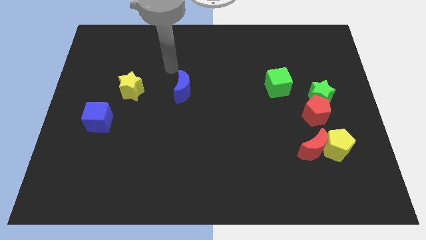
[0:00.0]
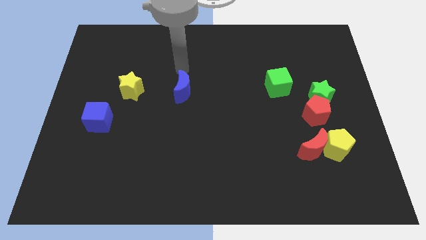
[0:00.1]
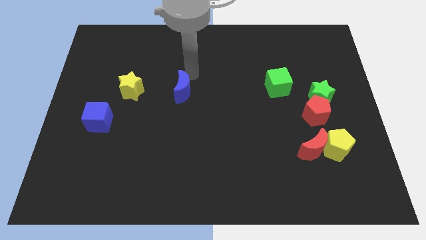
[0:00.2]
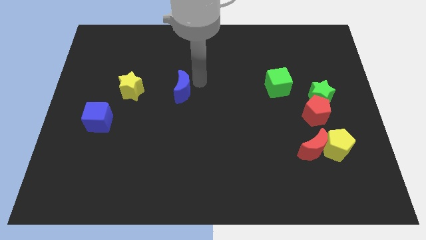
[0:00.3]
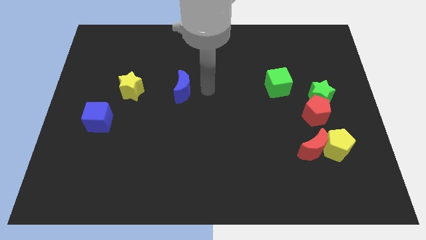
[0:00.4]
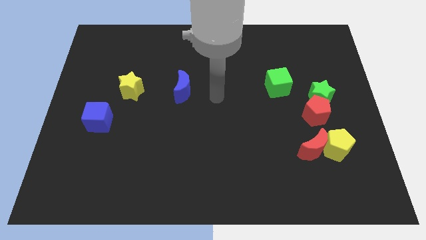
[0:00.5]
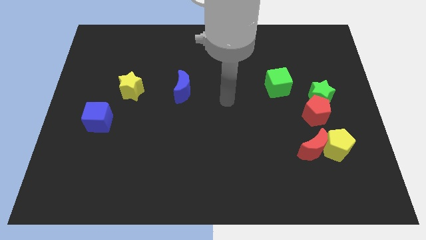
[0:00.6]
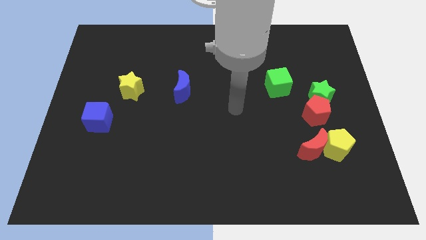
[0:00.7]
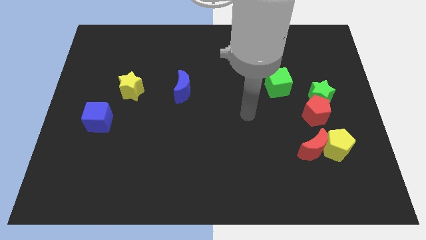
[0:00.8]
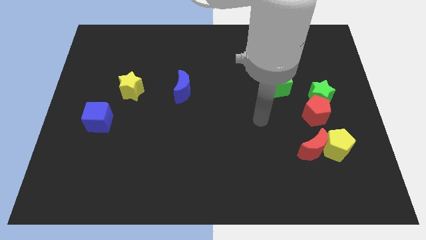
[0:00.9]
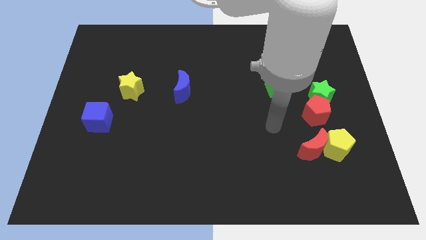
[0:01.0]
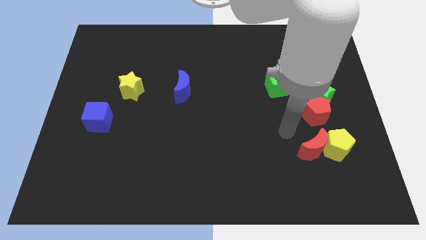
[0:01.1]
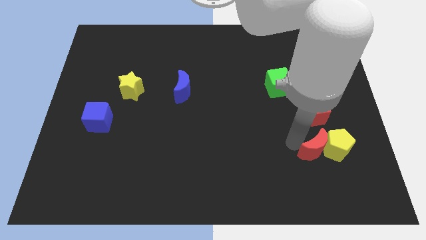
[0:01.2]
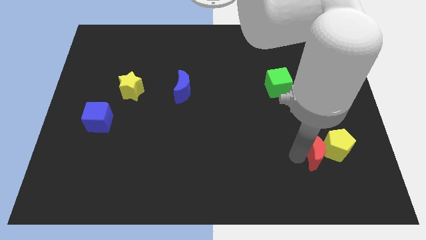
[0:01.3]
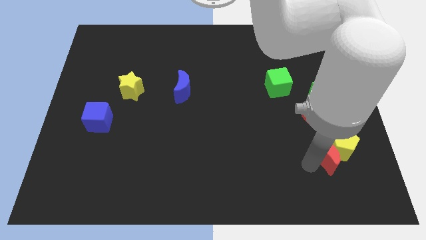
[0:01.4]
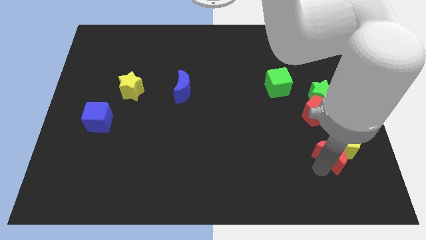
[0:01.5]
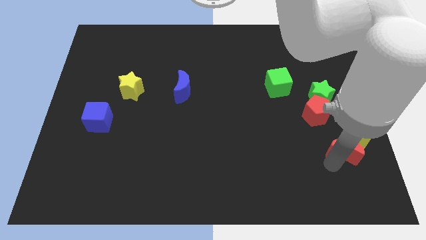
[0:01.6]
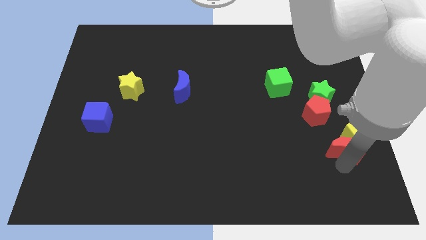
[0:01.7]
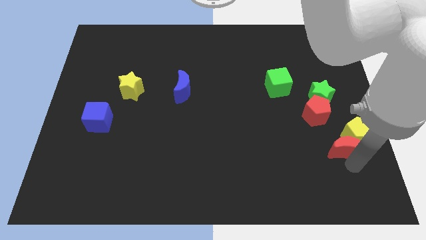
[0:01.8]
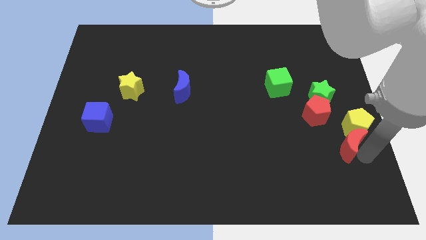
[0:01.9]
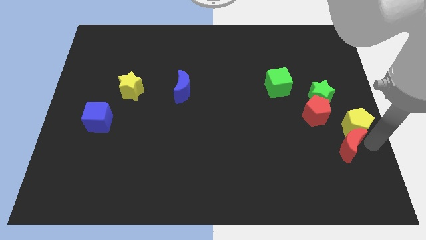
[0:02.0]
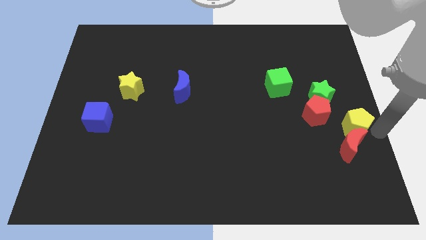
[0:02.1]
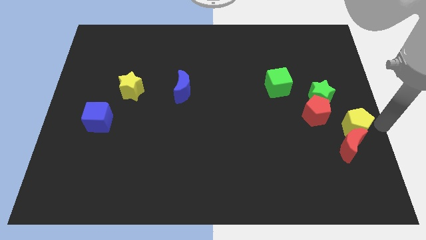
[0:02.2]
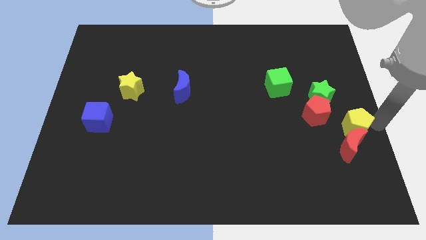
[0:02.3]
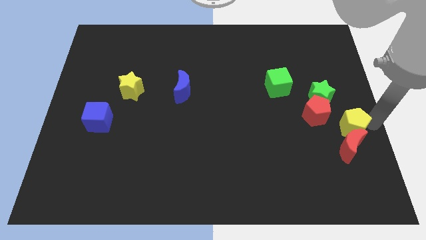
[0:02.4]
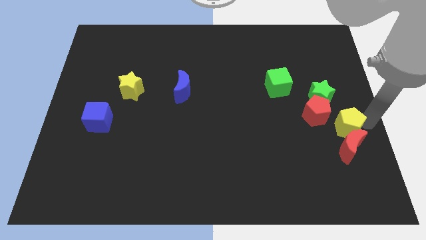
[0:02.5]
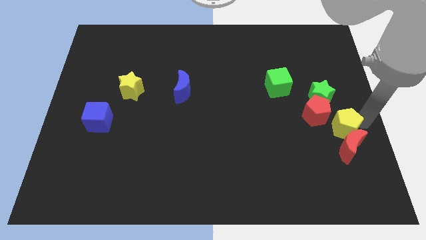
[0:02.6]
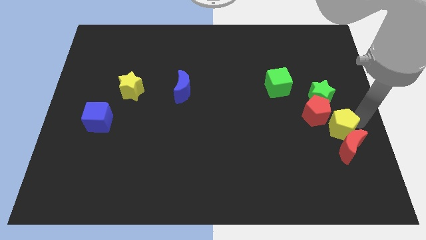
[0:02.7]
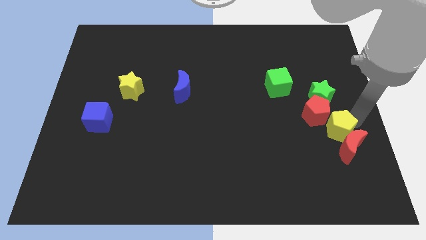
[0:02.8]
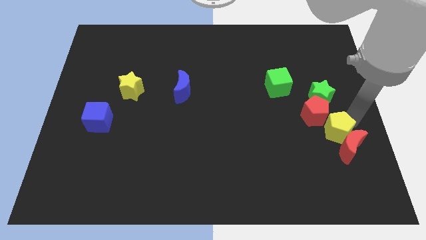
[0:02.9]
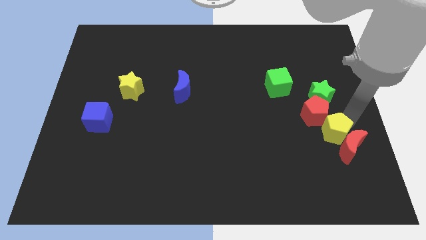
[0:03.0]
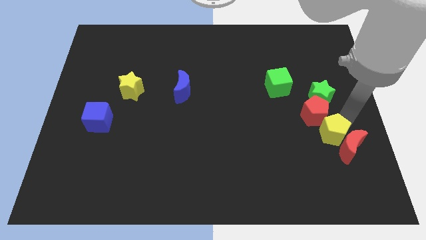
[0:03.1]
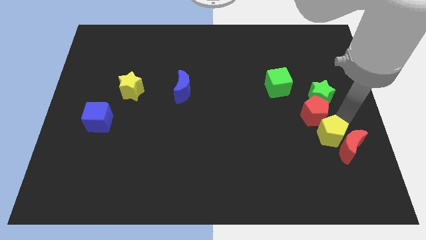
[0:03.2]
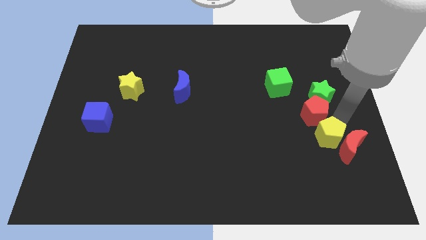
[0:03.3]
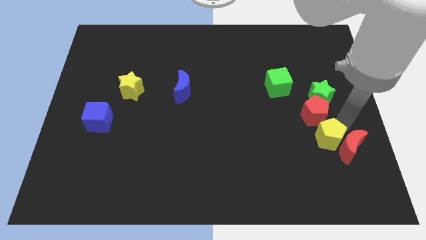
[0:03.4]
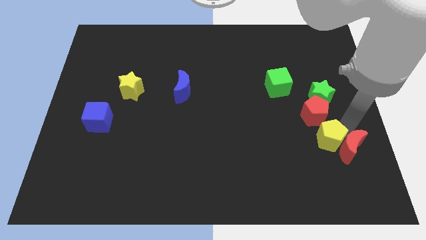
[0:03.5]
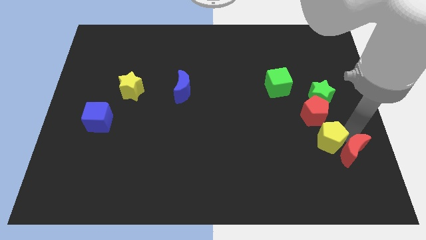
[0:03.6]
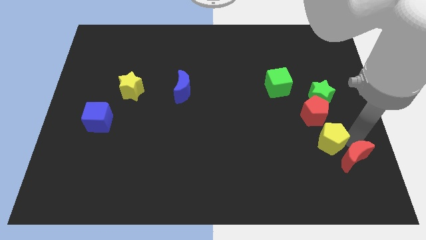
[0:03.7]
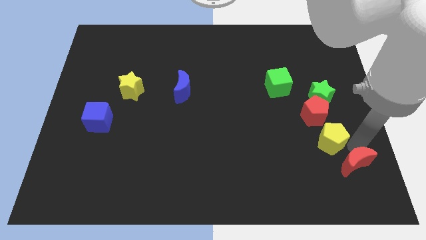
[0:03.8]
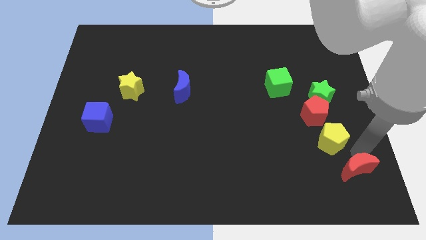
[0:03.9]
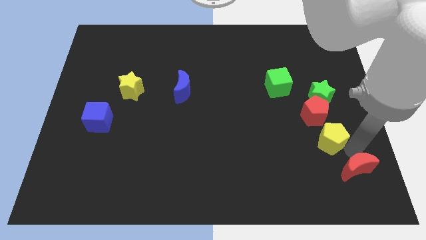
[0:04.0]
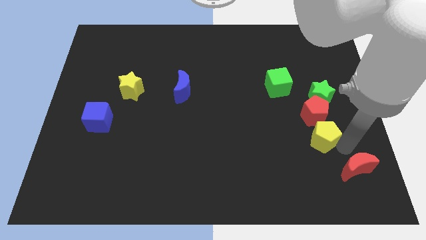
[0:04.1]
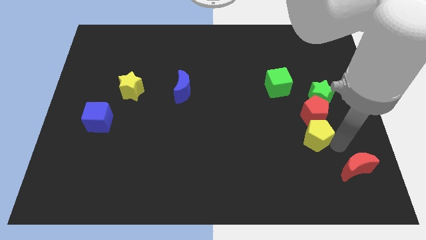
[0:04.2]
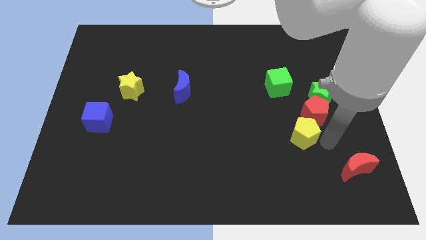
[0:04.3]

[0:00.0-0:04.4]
push the yellow pentagon somewhat upwards and then to the left

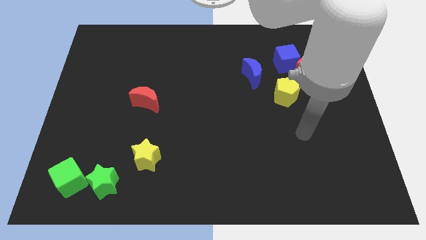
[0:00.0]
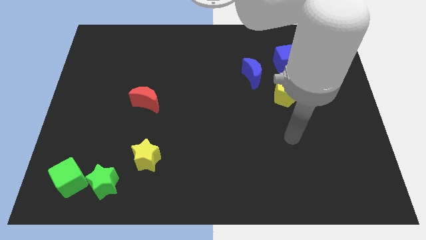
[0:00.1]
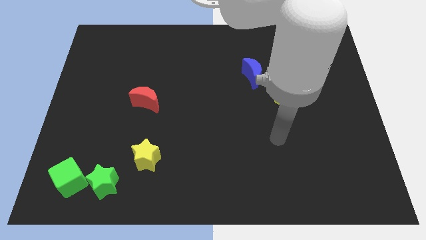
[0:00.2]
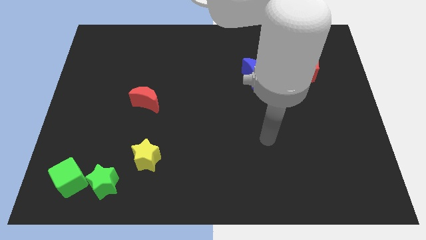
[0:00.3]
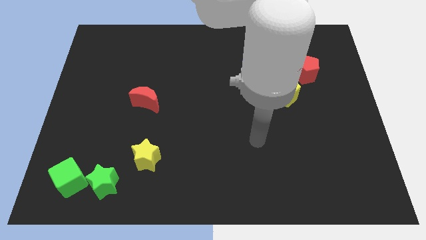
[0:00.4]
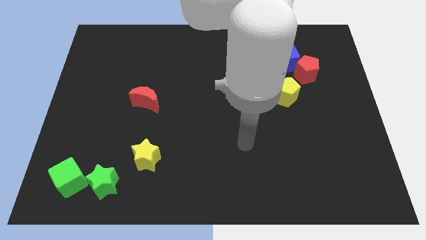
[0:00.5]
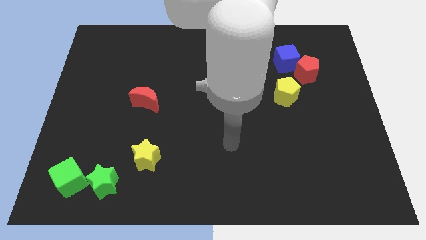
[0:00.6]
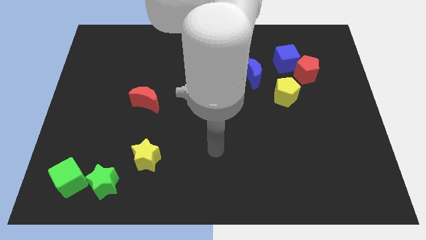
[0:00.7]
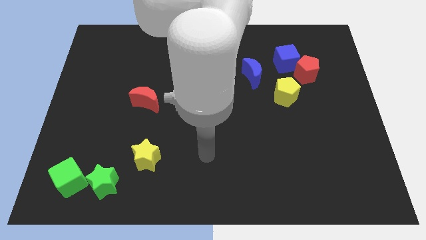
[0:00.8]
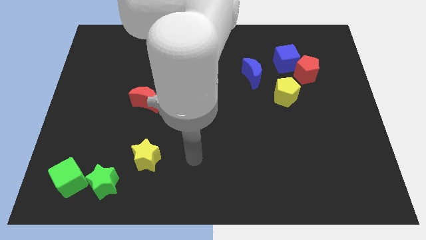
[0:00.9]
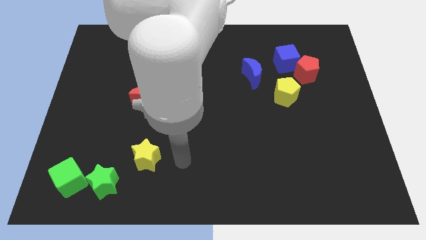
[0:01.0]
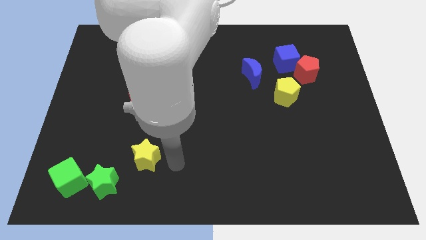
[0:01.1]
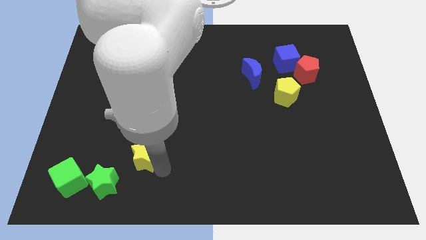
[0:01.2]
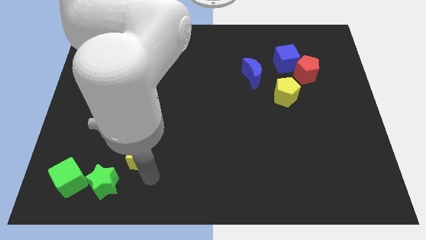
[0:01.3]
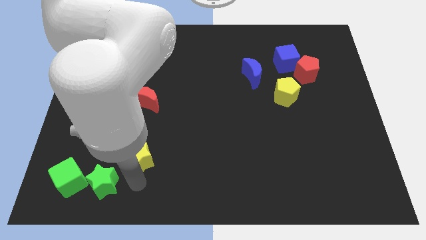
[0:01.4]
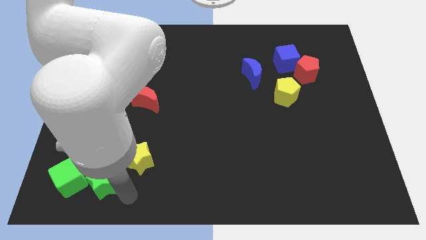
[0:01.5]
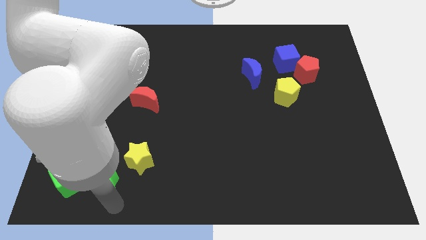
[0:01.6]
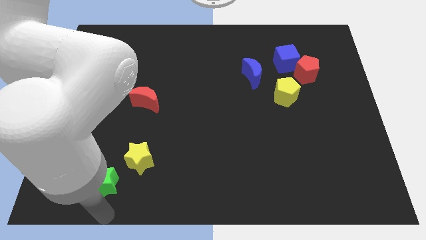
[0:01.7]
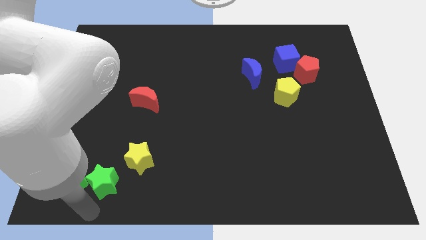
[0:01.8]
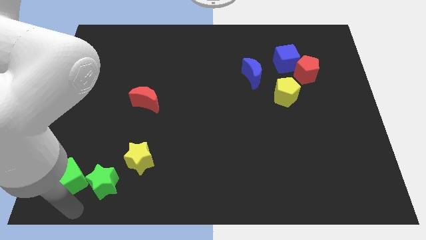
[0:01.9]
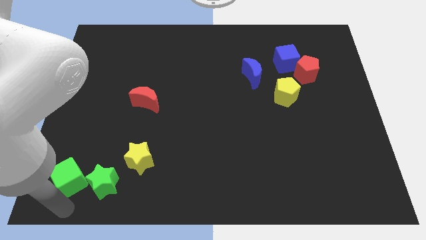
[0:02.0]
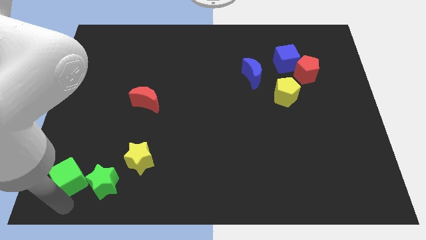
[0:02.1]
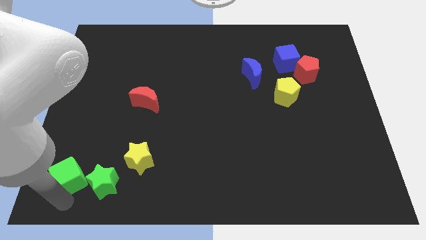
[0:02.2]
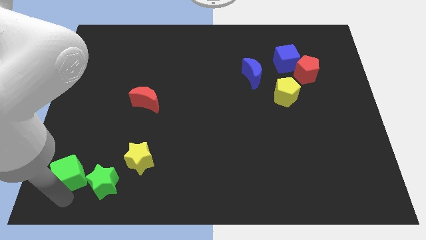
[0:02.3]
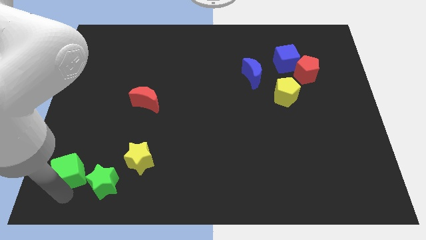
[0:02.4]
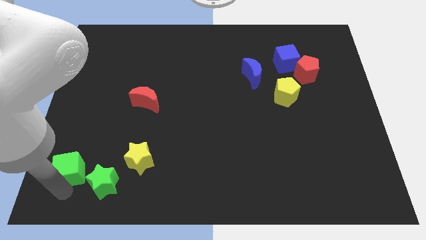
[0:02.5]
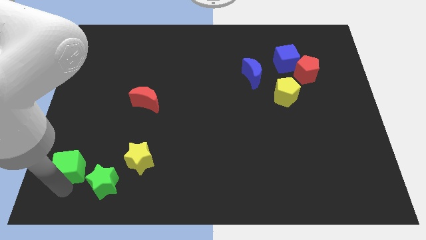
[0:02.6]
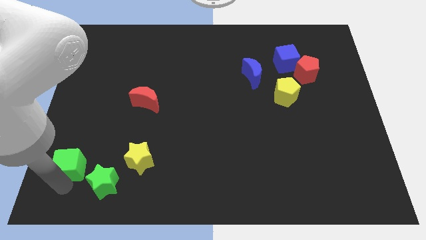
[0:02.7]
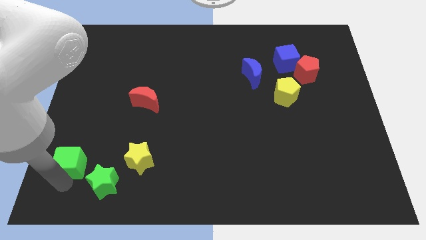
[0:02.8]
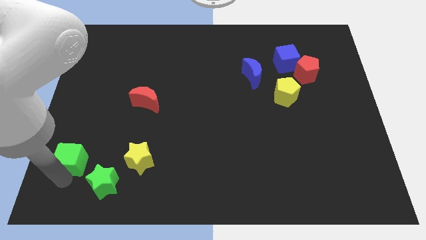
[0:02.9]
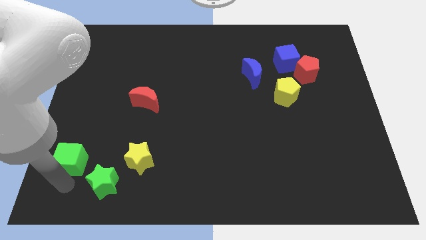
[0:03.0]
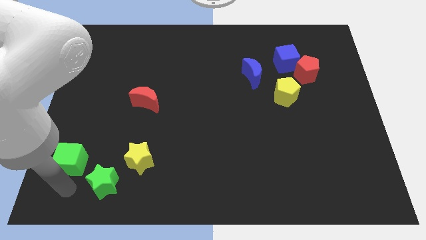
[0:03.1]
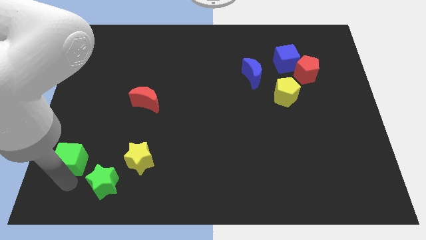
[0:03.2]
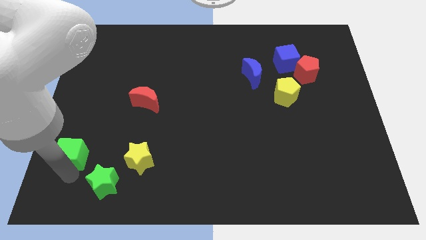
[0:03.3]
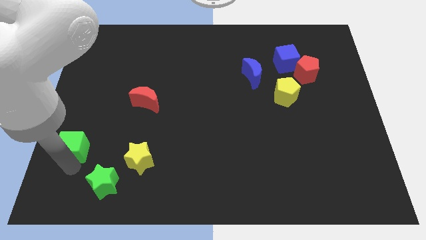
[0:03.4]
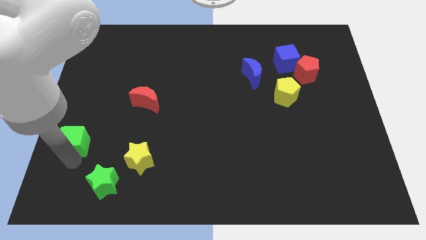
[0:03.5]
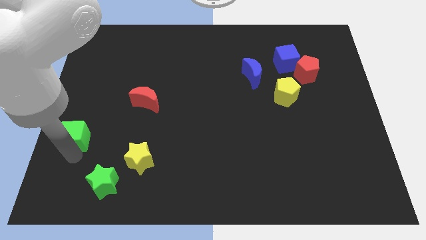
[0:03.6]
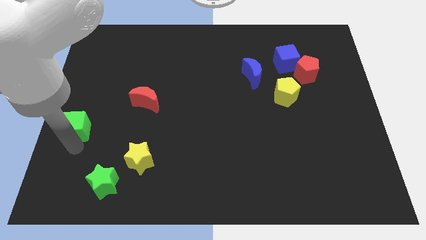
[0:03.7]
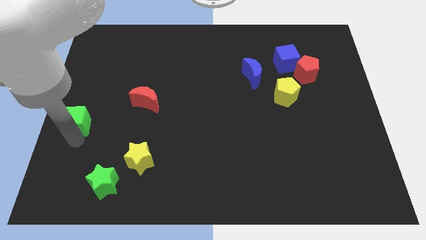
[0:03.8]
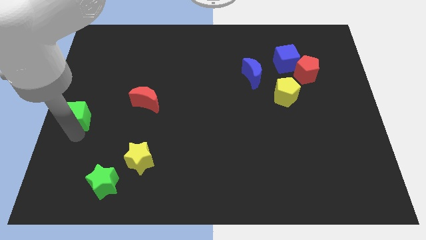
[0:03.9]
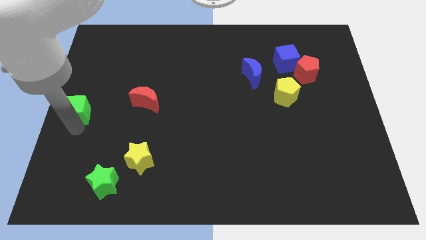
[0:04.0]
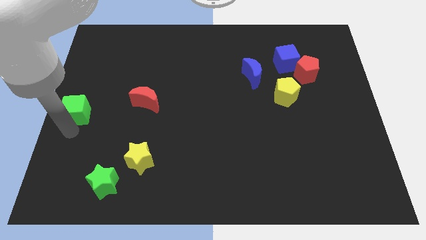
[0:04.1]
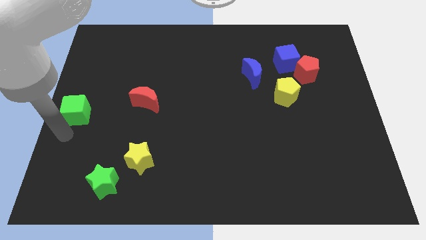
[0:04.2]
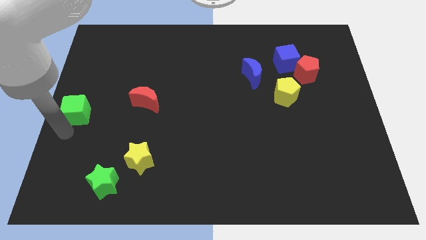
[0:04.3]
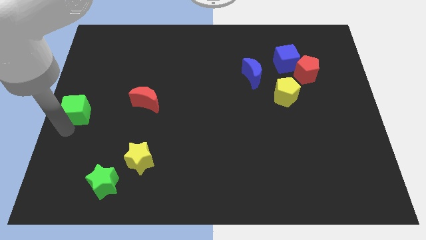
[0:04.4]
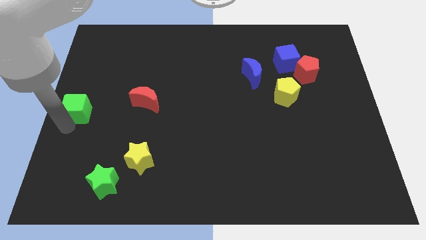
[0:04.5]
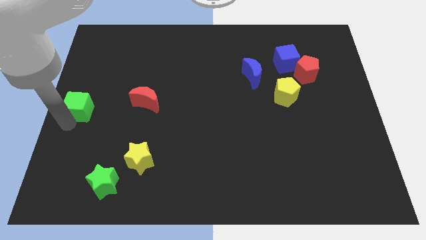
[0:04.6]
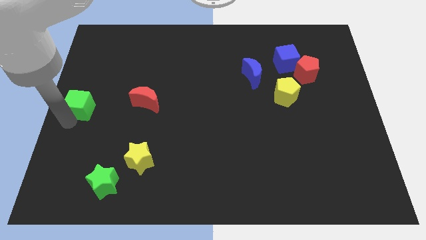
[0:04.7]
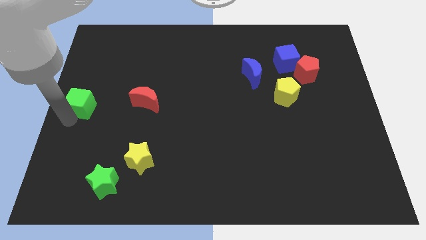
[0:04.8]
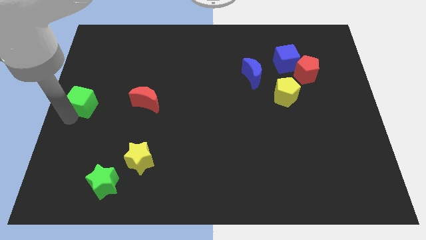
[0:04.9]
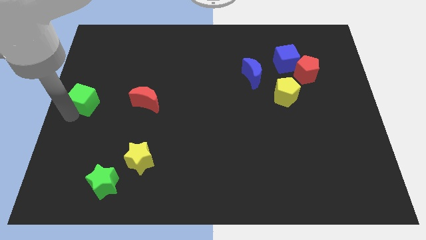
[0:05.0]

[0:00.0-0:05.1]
move the green cube upwards
